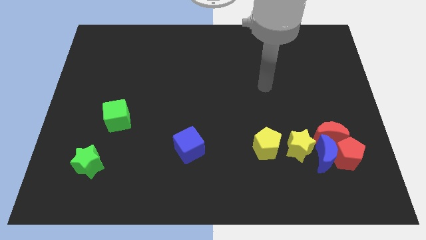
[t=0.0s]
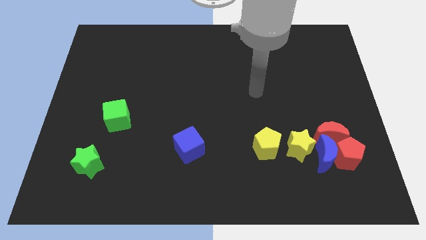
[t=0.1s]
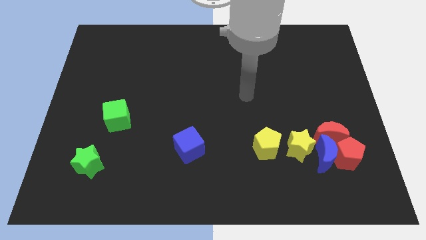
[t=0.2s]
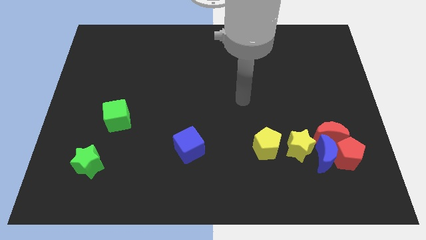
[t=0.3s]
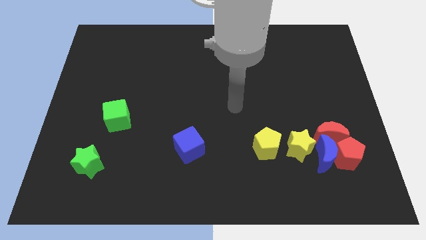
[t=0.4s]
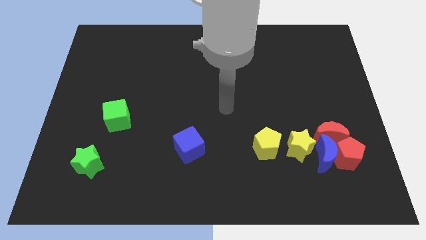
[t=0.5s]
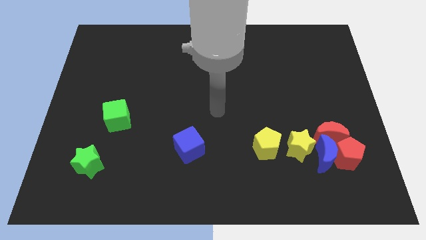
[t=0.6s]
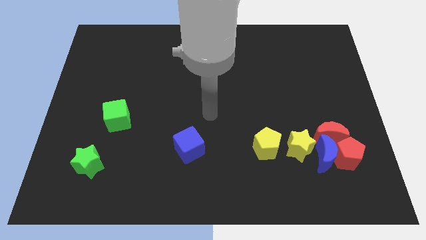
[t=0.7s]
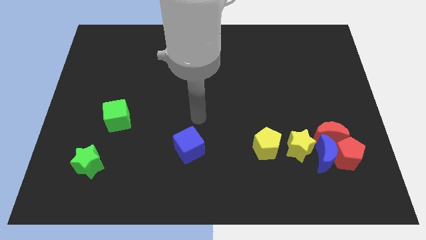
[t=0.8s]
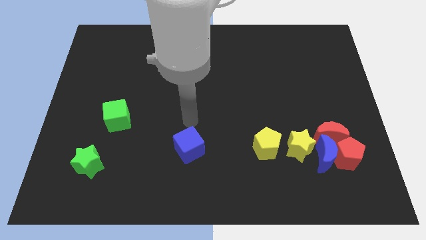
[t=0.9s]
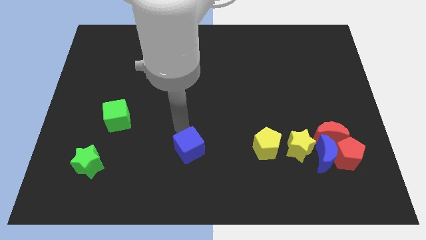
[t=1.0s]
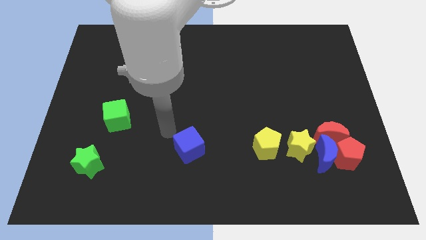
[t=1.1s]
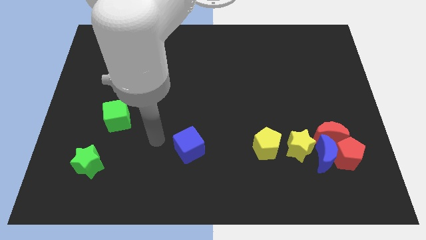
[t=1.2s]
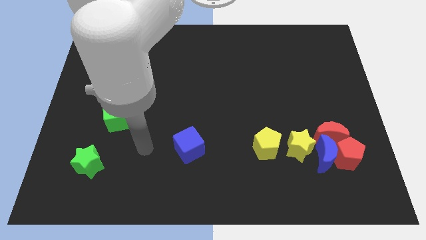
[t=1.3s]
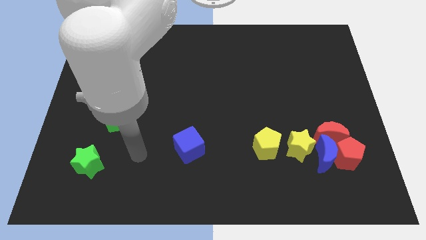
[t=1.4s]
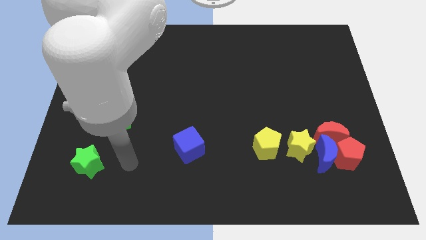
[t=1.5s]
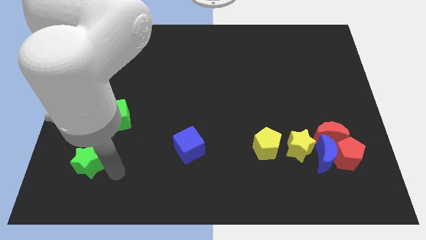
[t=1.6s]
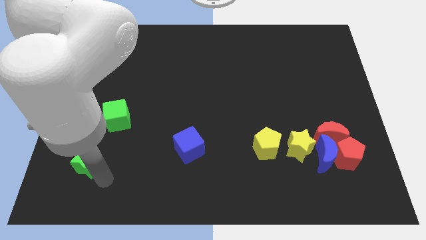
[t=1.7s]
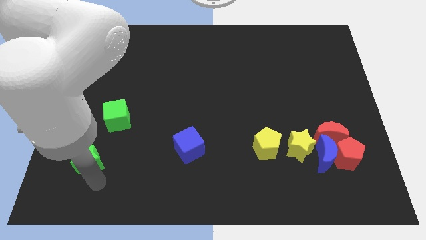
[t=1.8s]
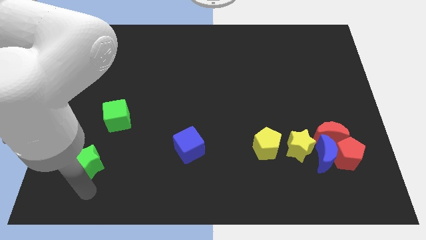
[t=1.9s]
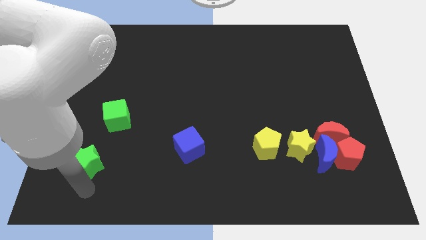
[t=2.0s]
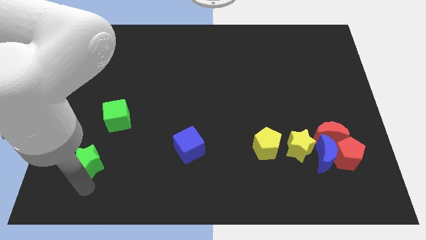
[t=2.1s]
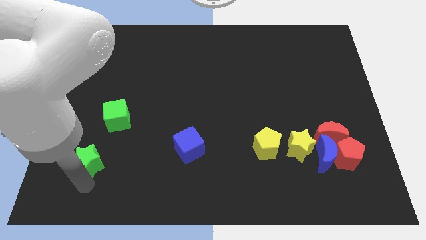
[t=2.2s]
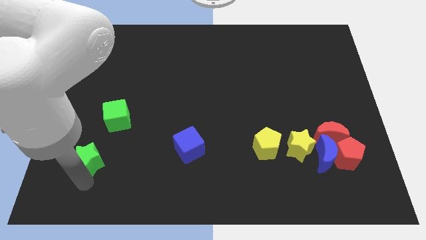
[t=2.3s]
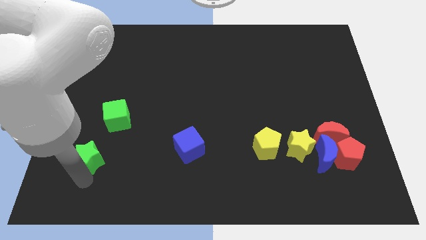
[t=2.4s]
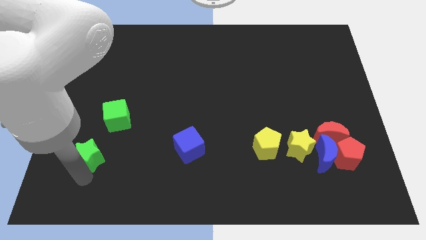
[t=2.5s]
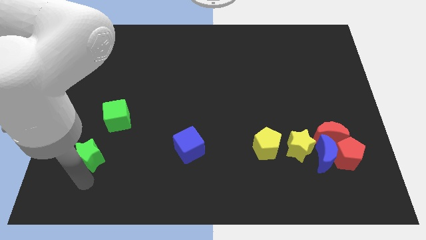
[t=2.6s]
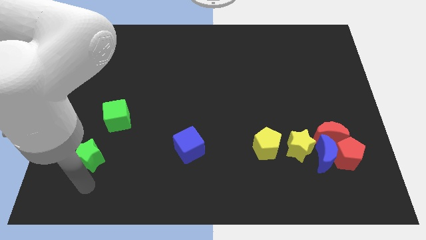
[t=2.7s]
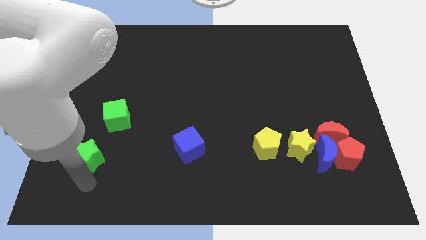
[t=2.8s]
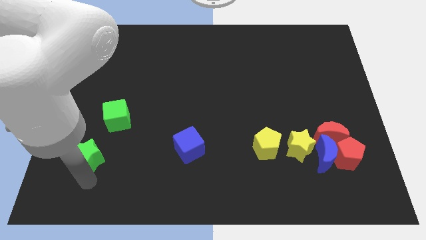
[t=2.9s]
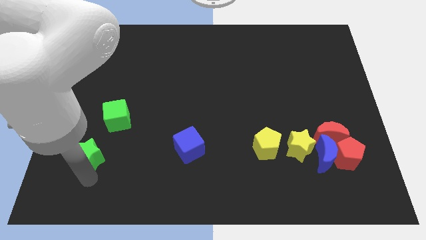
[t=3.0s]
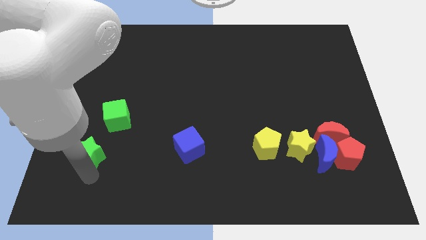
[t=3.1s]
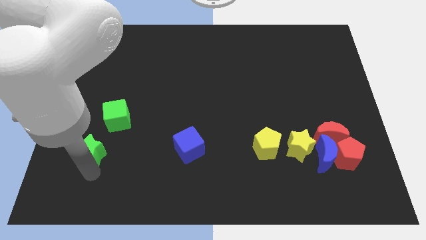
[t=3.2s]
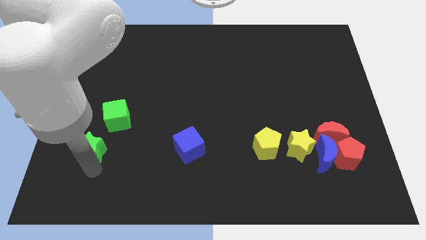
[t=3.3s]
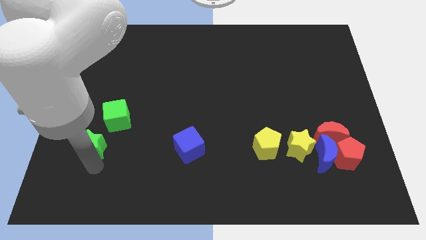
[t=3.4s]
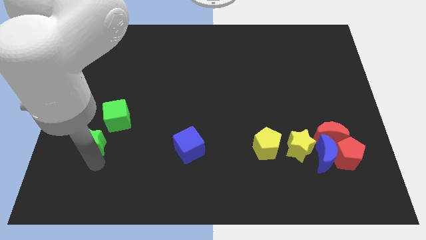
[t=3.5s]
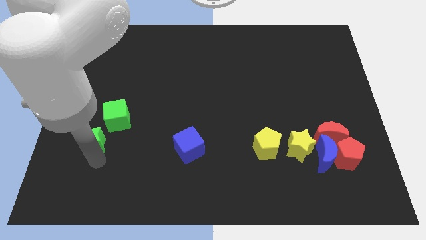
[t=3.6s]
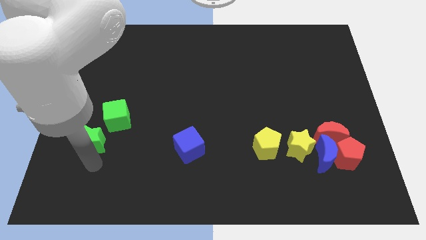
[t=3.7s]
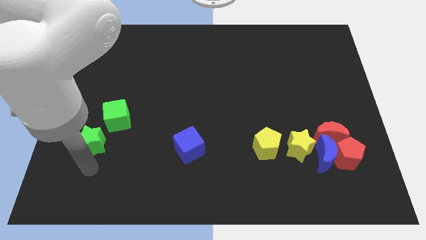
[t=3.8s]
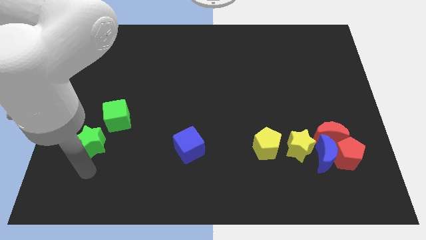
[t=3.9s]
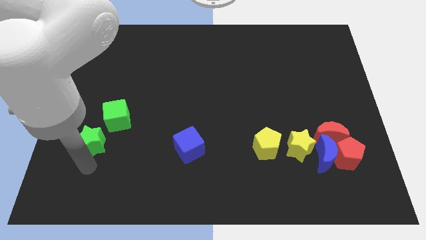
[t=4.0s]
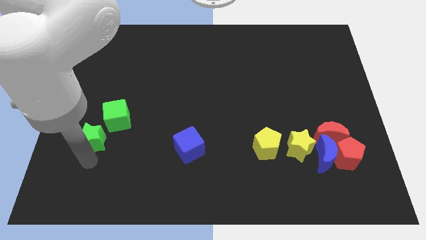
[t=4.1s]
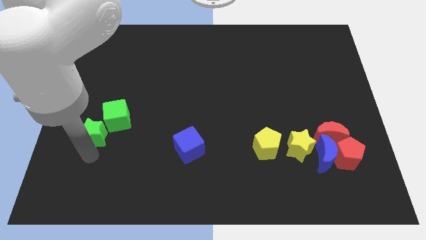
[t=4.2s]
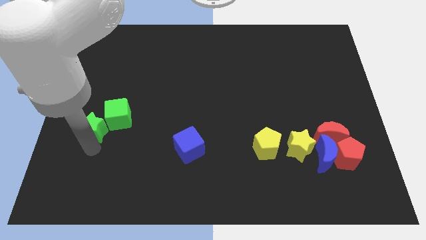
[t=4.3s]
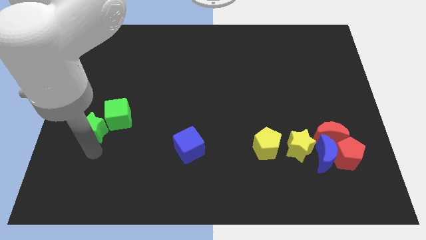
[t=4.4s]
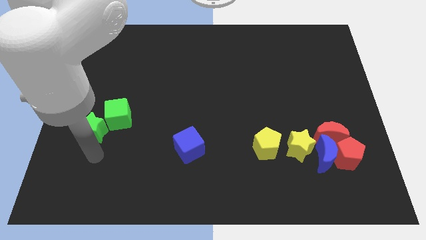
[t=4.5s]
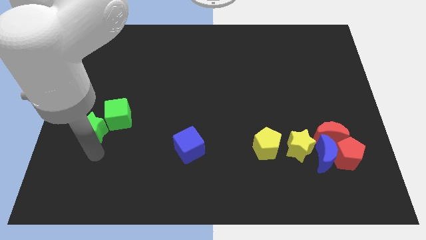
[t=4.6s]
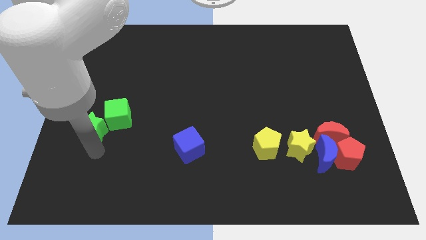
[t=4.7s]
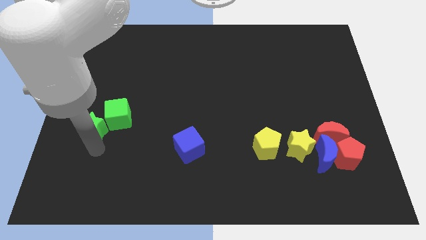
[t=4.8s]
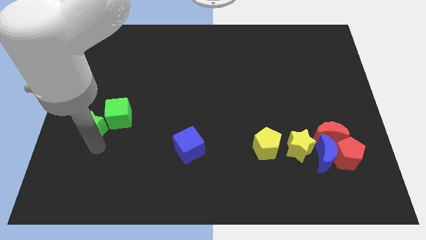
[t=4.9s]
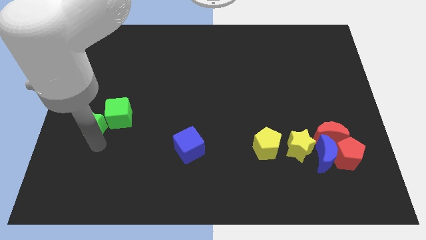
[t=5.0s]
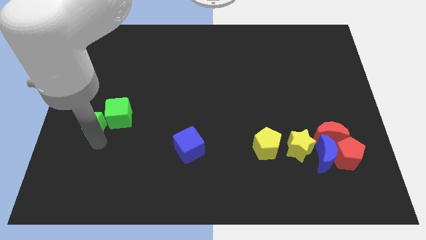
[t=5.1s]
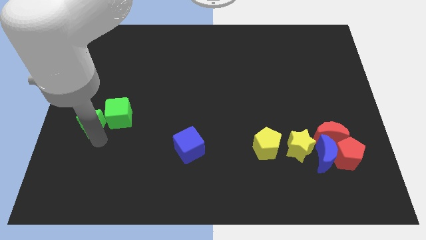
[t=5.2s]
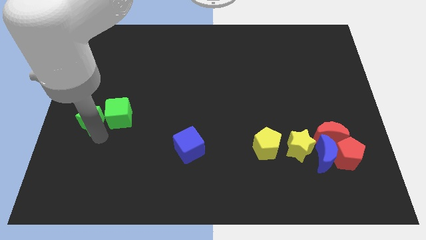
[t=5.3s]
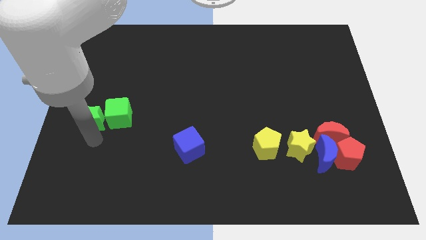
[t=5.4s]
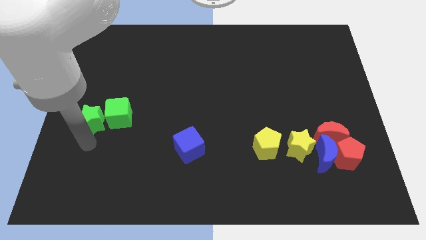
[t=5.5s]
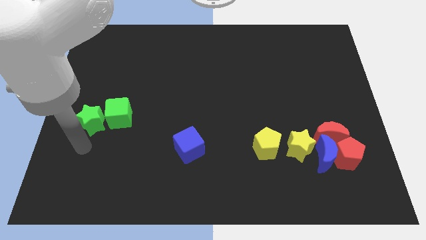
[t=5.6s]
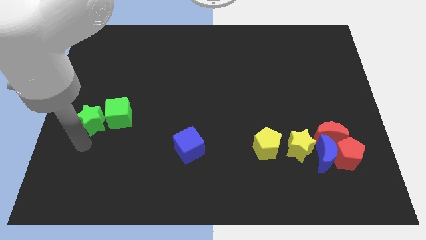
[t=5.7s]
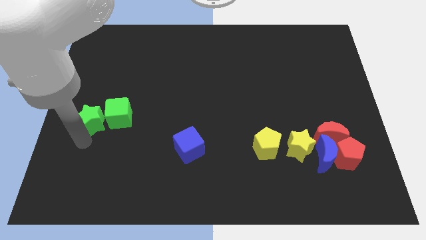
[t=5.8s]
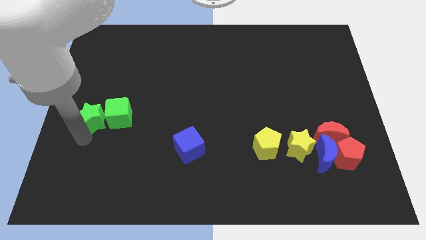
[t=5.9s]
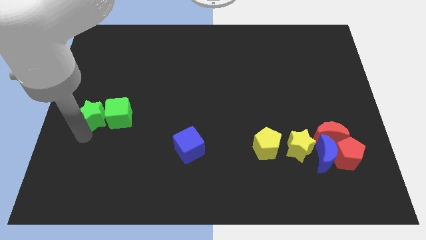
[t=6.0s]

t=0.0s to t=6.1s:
put the green star diagonally up and to the left of the green cube

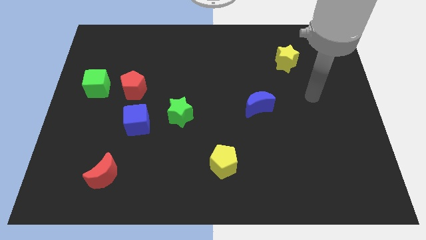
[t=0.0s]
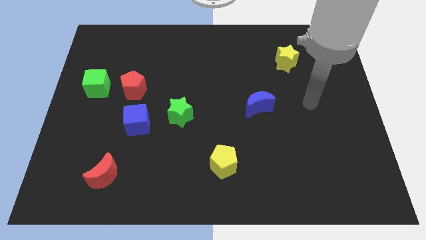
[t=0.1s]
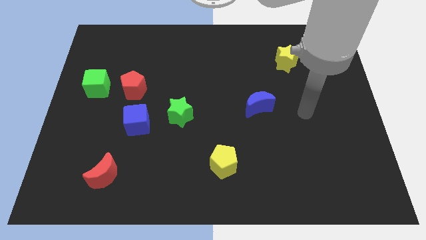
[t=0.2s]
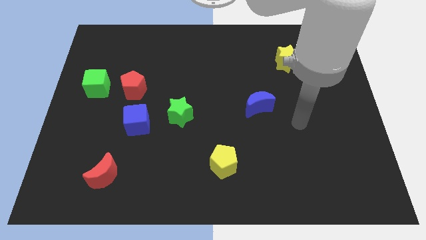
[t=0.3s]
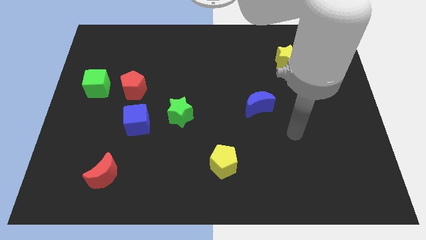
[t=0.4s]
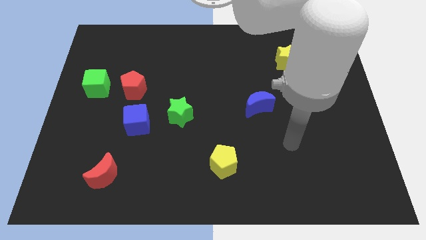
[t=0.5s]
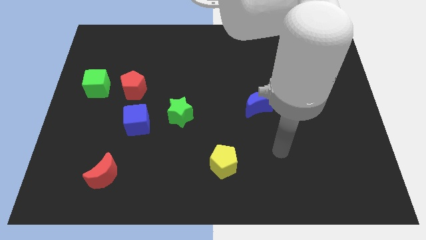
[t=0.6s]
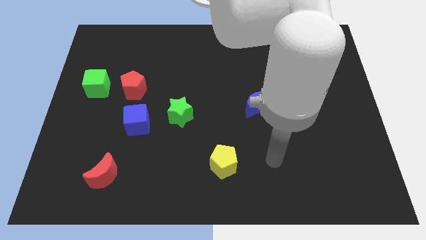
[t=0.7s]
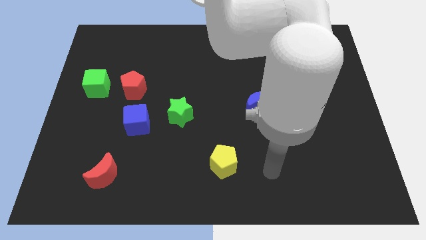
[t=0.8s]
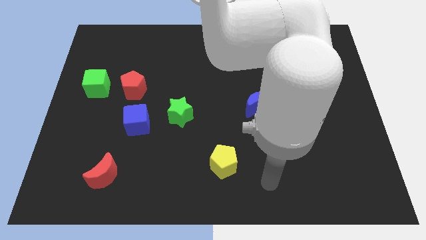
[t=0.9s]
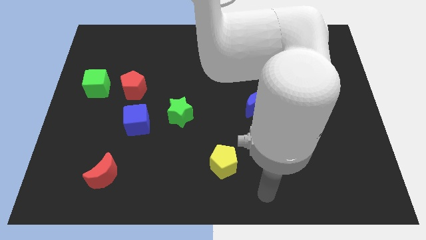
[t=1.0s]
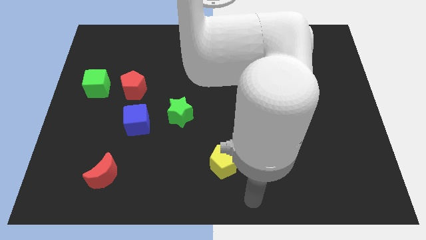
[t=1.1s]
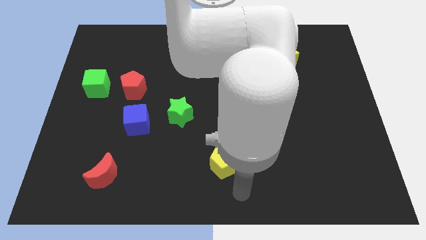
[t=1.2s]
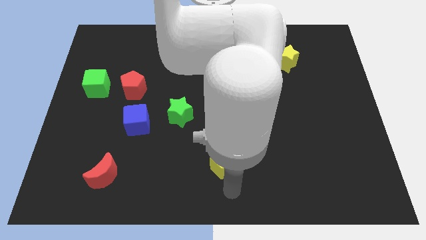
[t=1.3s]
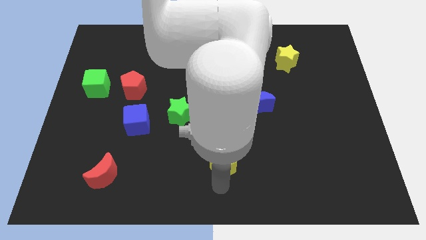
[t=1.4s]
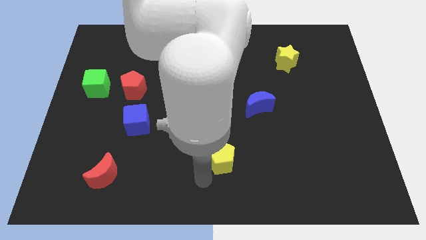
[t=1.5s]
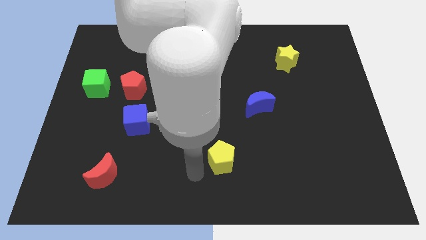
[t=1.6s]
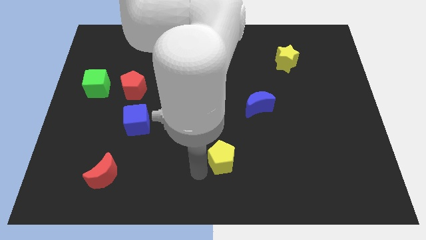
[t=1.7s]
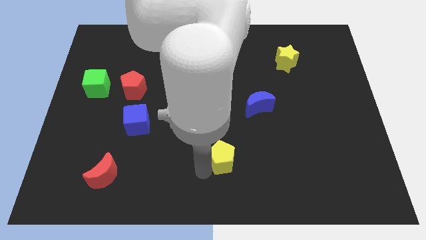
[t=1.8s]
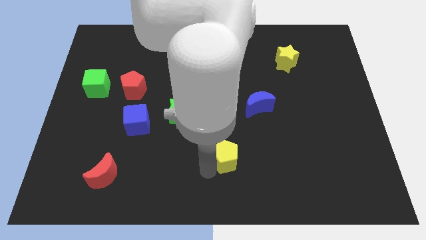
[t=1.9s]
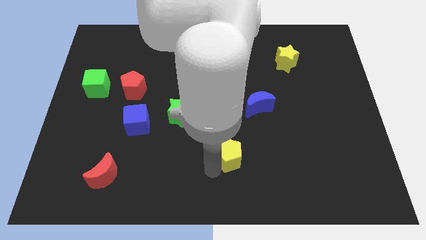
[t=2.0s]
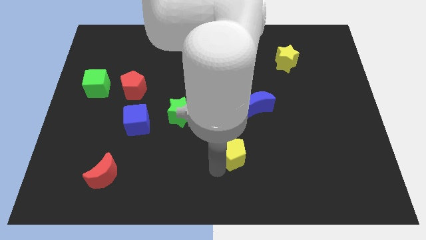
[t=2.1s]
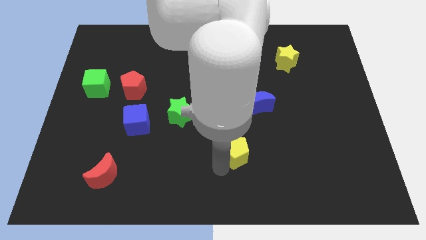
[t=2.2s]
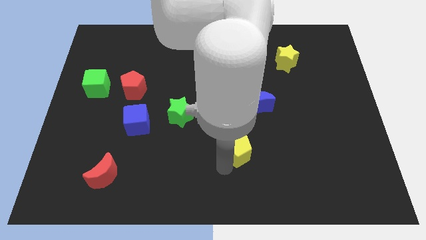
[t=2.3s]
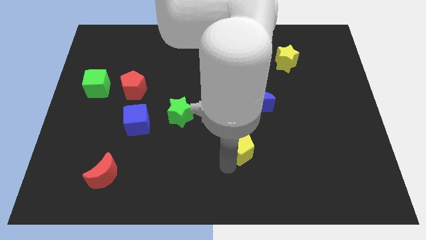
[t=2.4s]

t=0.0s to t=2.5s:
slide the yellow pentagon to the bottom of the blue moon
